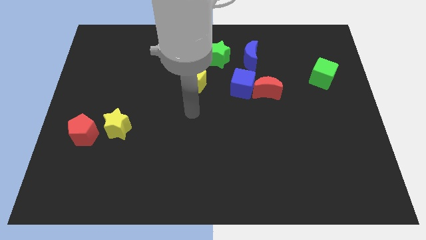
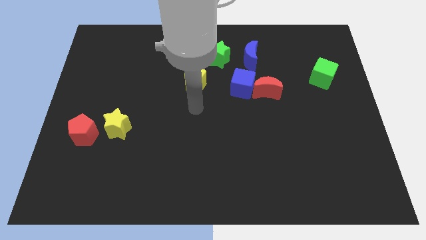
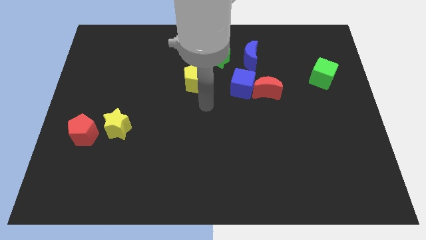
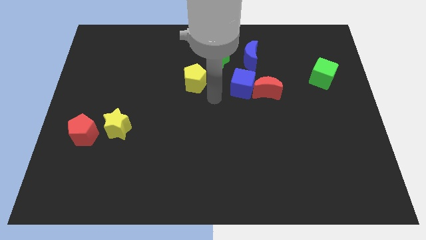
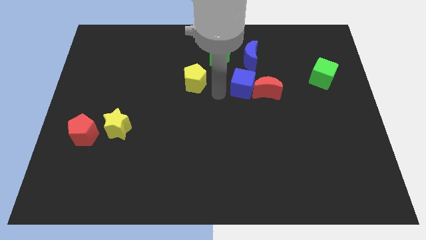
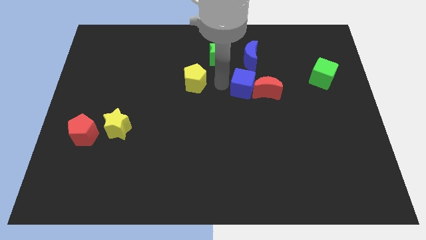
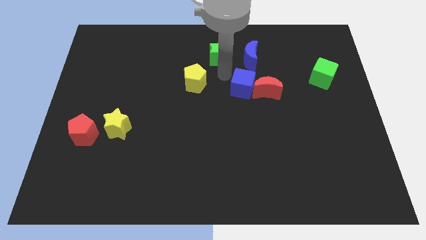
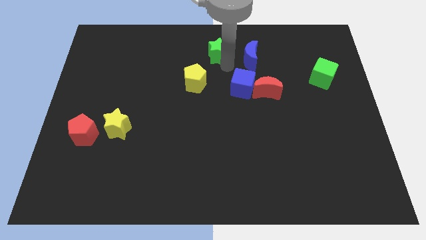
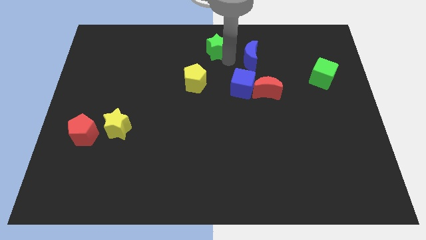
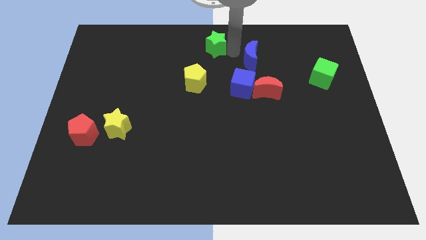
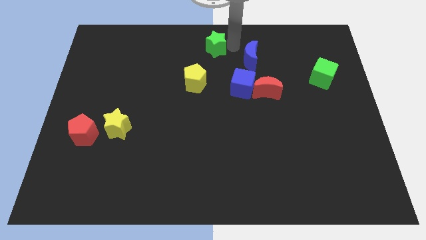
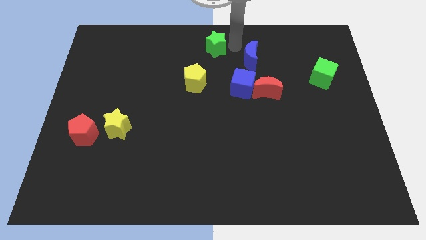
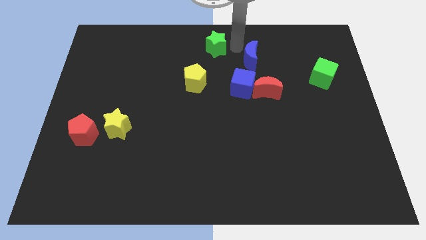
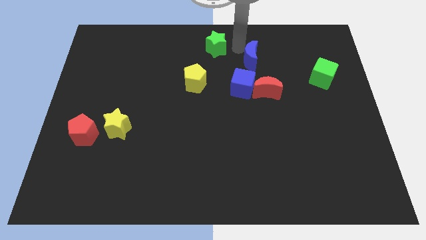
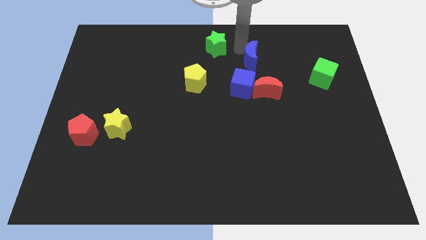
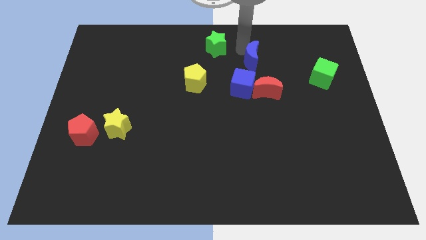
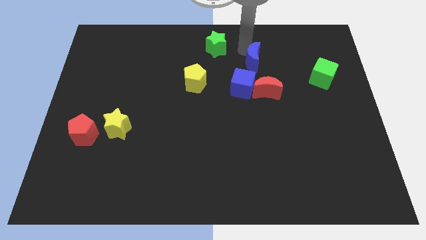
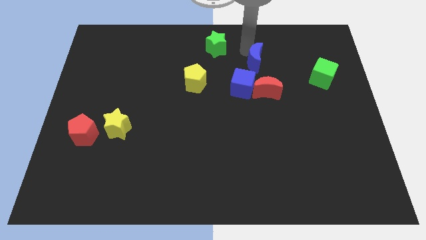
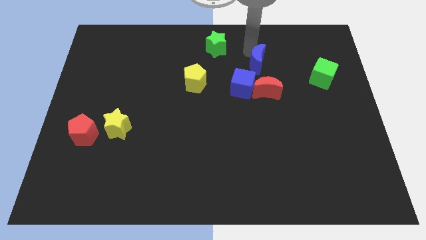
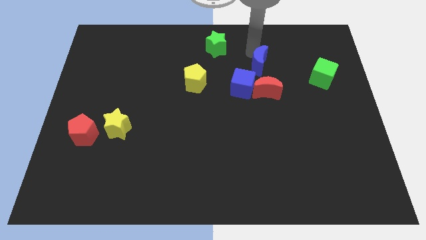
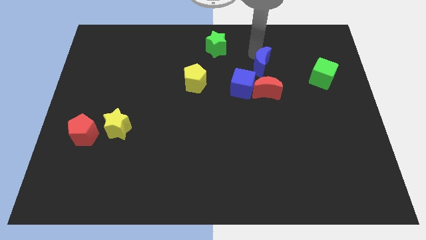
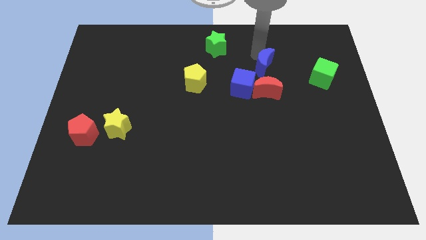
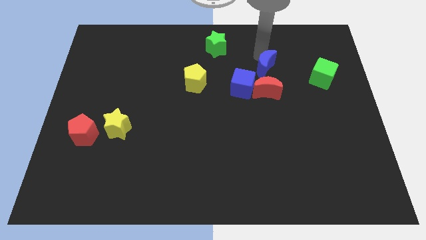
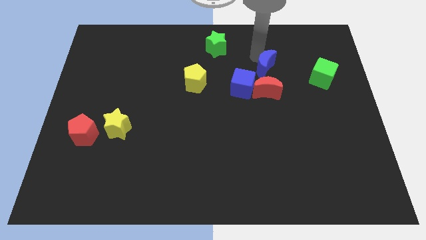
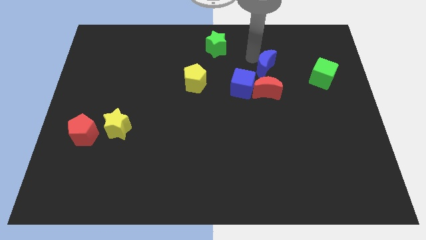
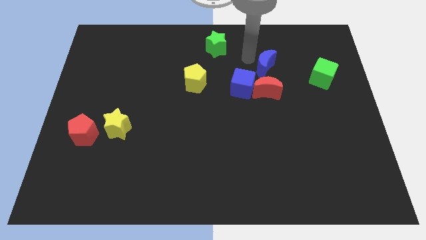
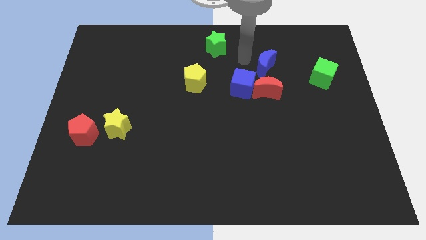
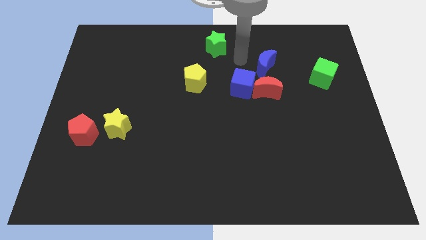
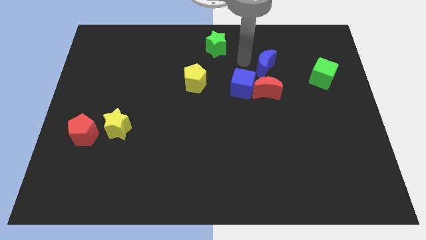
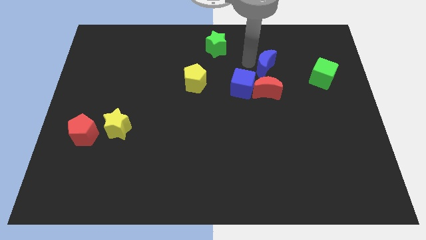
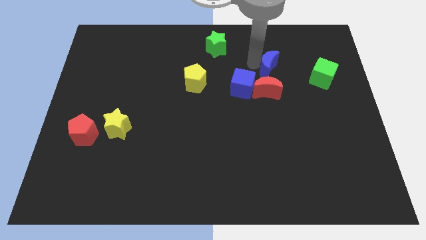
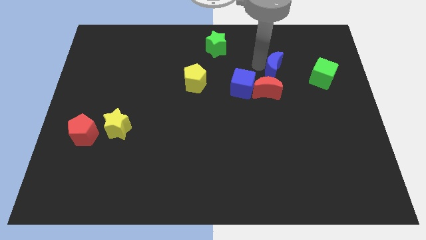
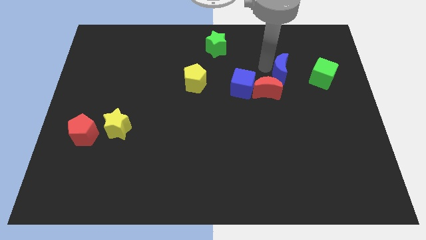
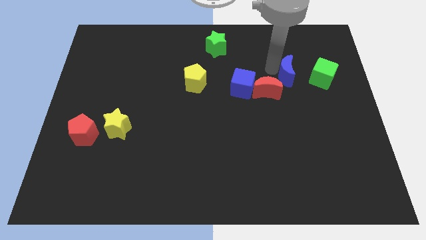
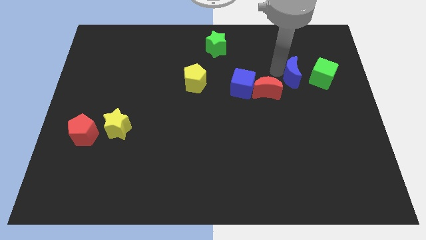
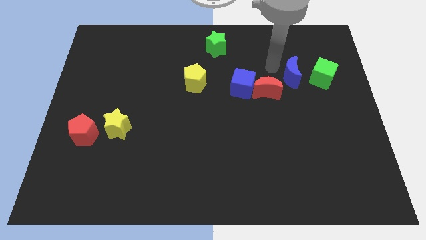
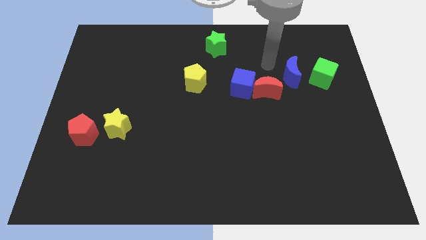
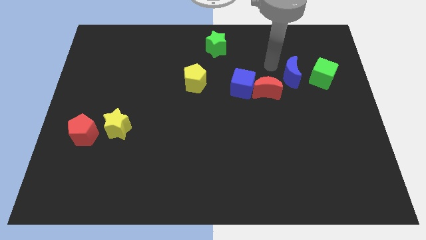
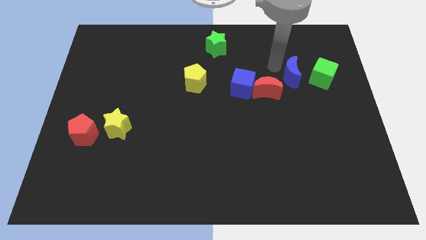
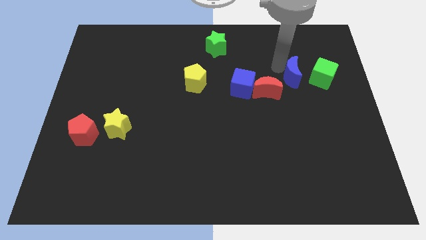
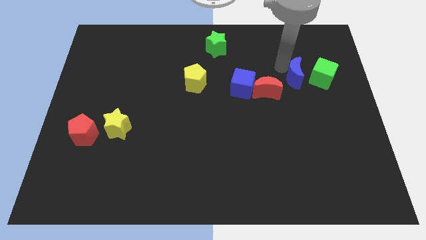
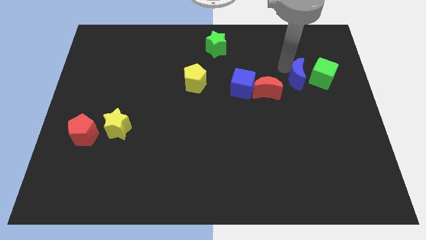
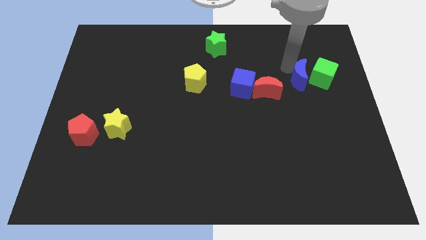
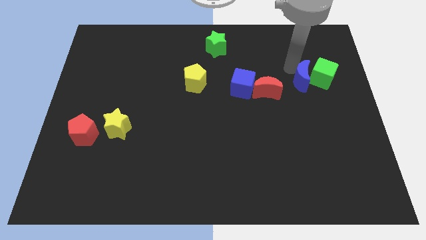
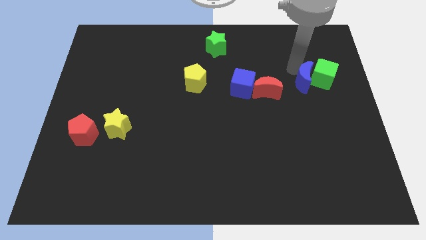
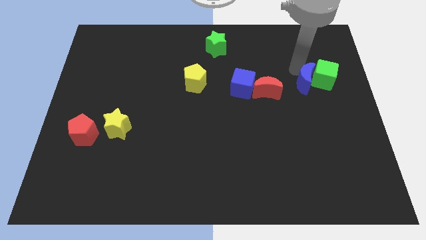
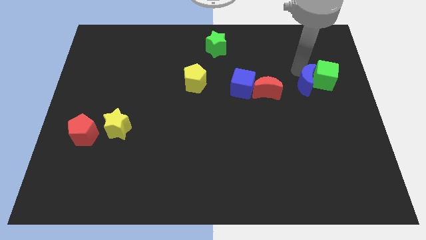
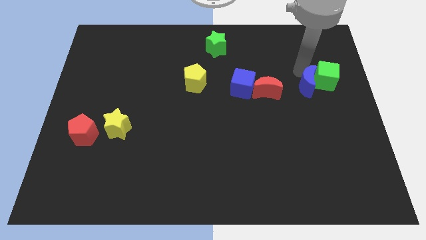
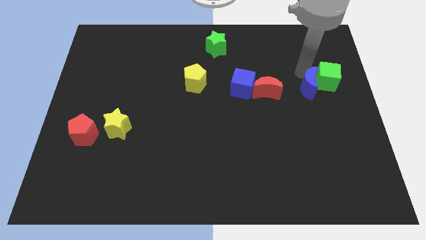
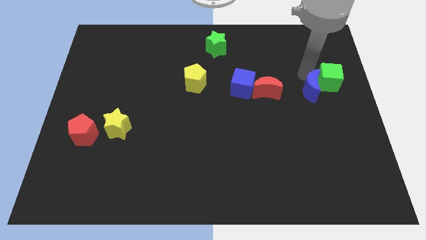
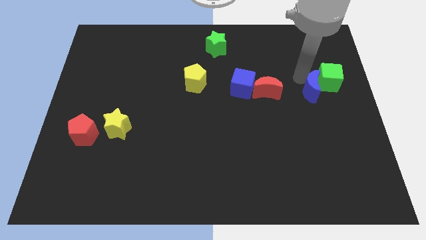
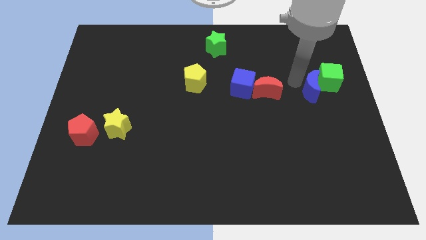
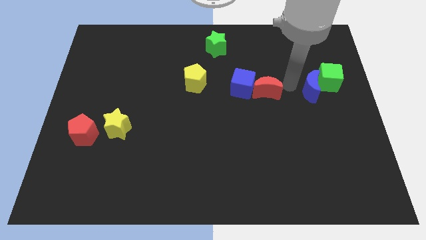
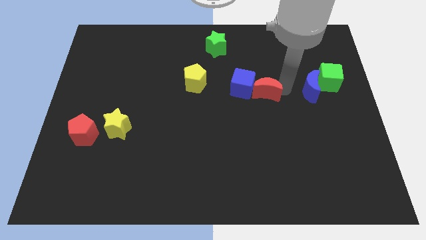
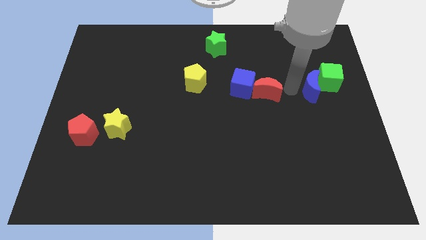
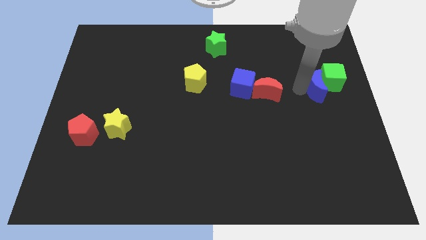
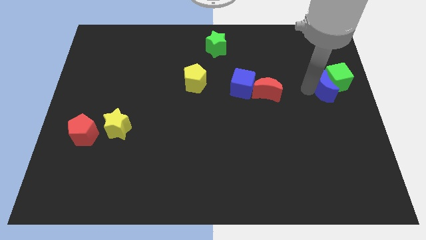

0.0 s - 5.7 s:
move the blue moon to the right side
